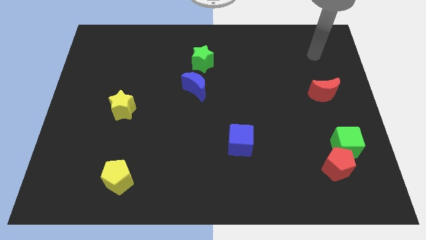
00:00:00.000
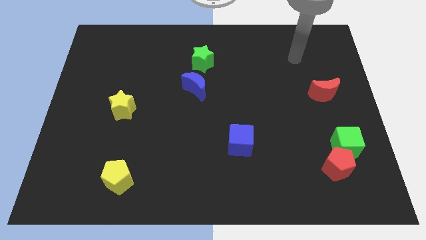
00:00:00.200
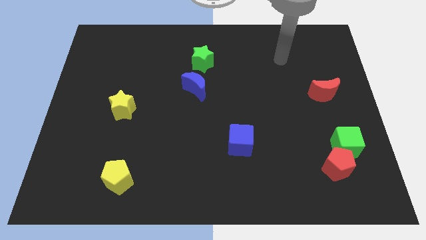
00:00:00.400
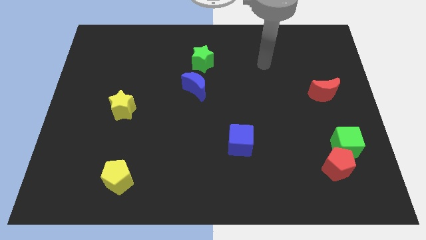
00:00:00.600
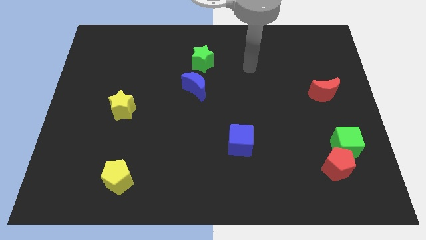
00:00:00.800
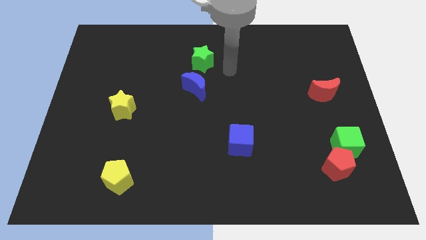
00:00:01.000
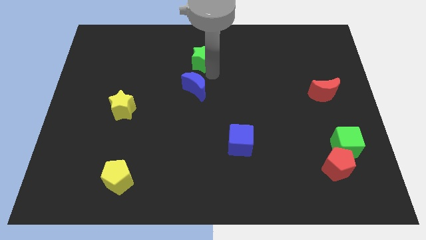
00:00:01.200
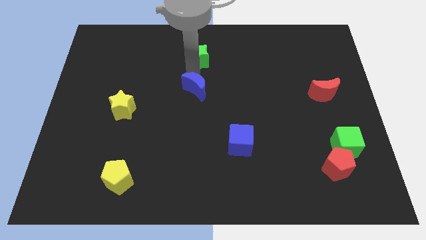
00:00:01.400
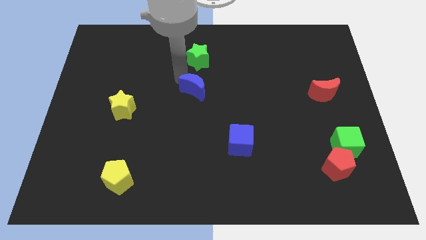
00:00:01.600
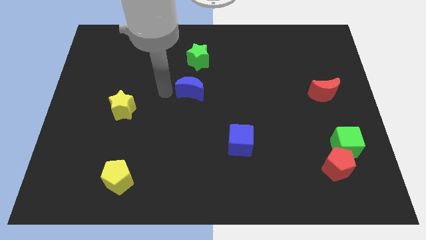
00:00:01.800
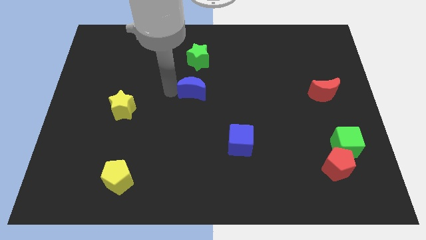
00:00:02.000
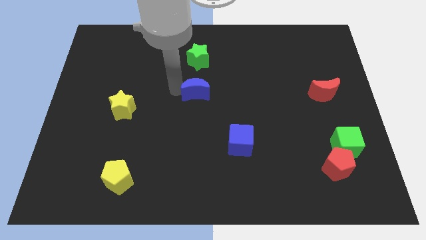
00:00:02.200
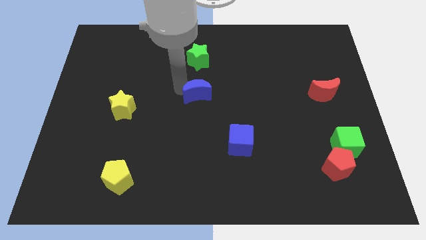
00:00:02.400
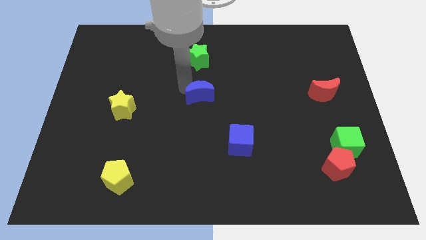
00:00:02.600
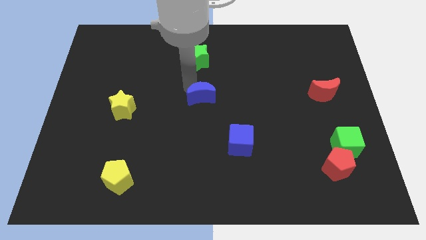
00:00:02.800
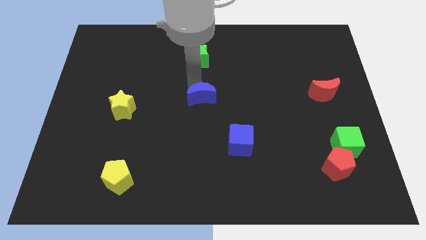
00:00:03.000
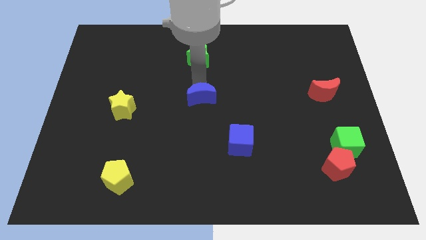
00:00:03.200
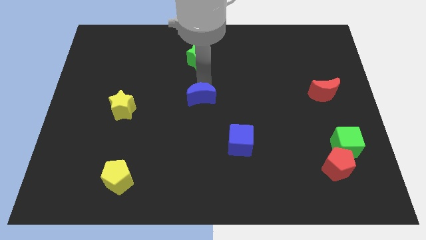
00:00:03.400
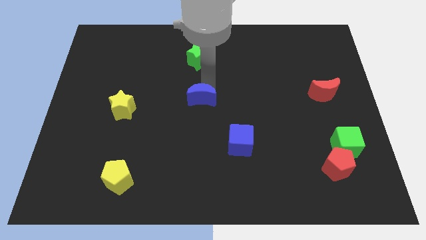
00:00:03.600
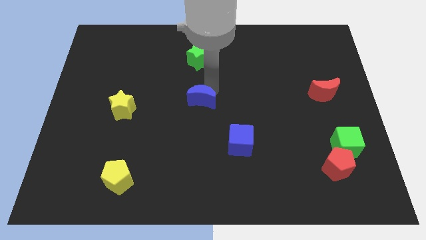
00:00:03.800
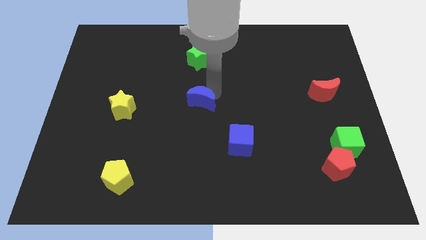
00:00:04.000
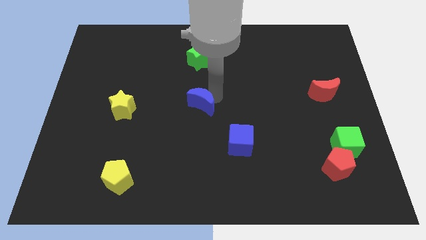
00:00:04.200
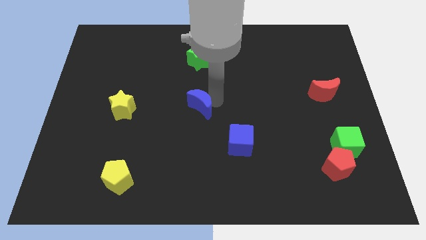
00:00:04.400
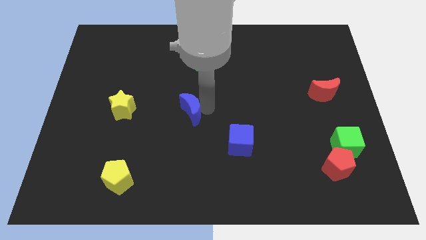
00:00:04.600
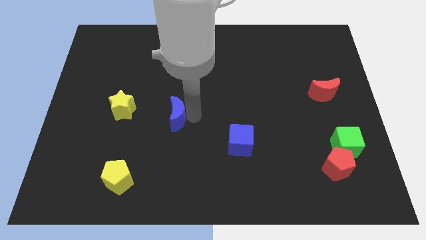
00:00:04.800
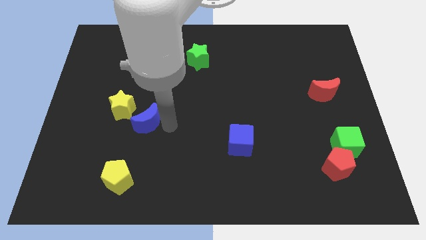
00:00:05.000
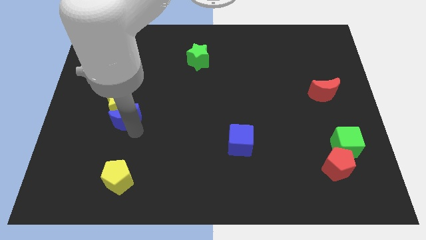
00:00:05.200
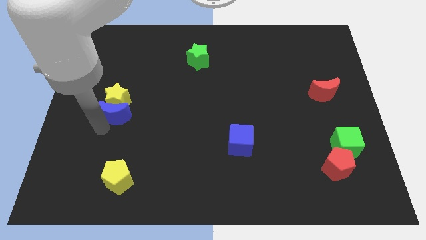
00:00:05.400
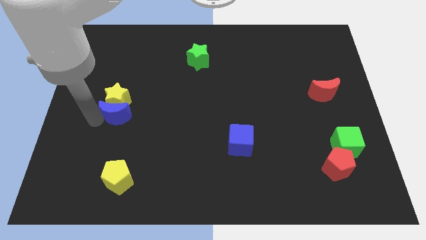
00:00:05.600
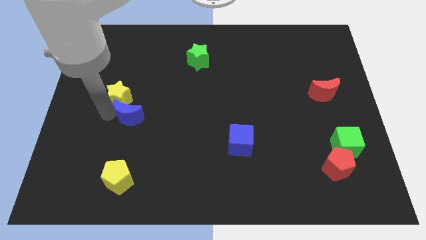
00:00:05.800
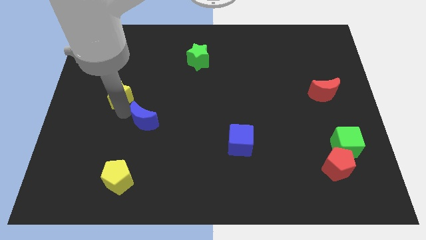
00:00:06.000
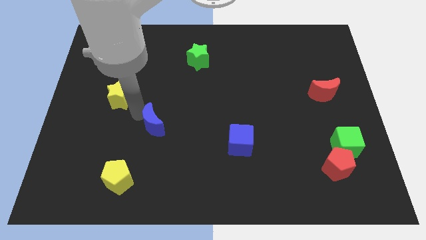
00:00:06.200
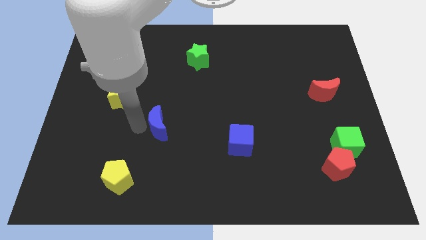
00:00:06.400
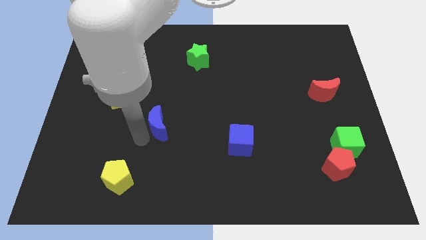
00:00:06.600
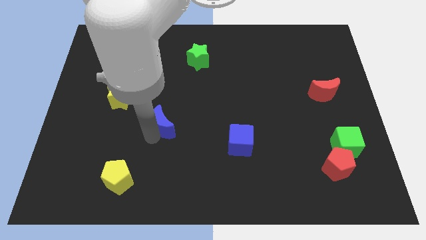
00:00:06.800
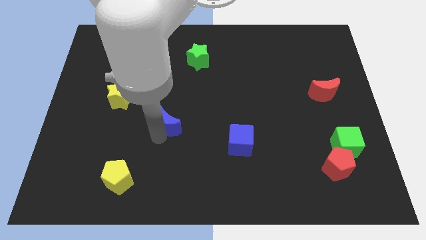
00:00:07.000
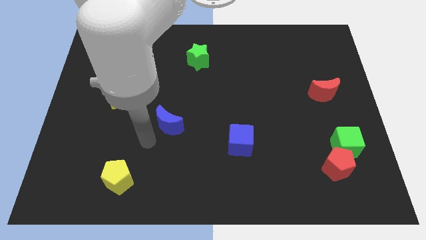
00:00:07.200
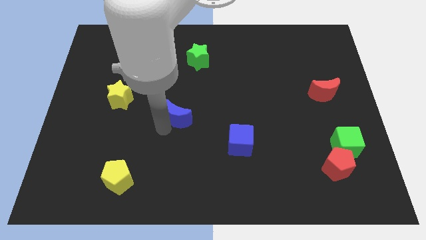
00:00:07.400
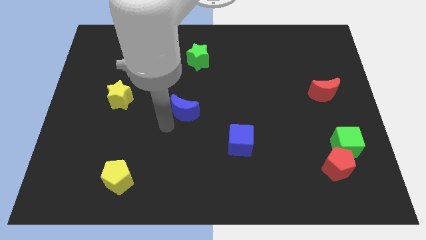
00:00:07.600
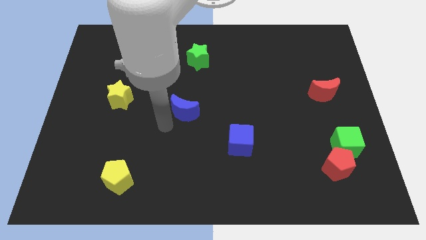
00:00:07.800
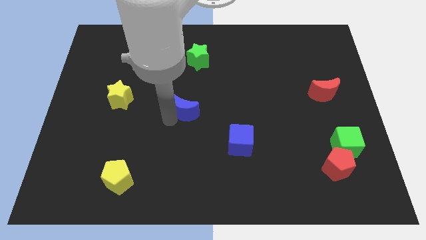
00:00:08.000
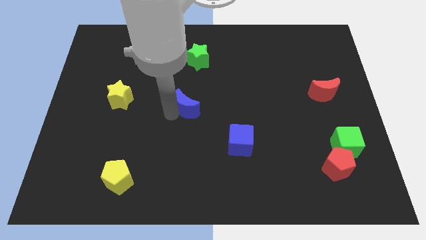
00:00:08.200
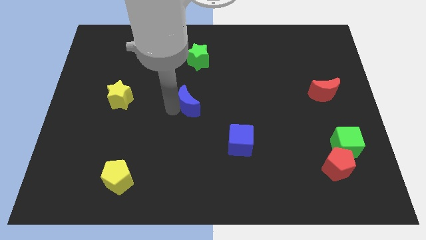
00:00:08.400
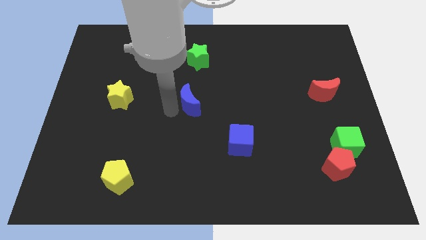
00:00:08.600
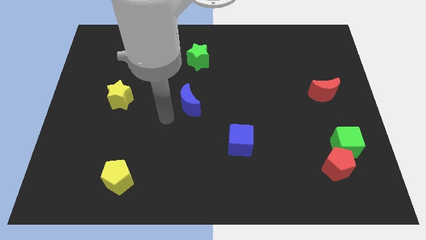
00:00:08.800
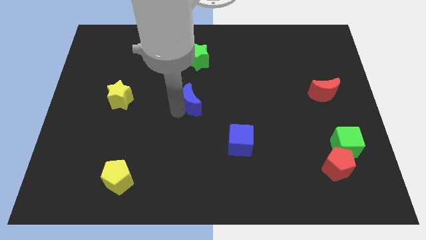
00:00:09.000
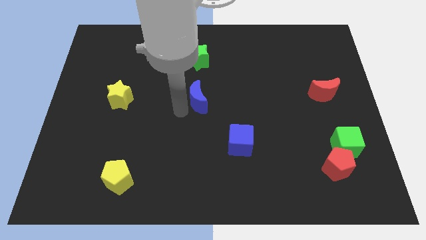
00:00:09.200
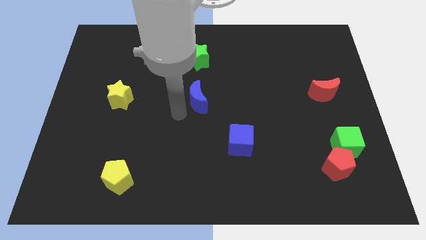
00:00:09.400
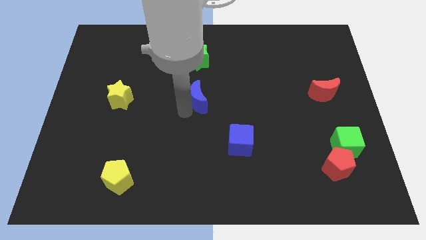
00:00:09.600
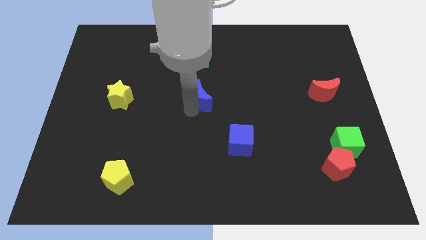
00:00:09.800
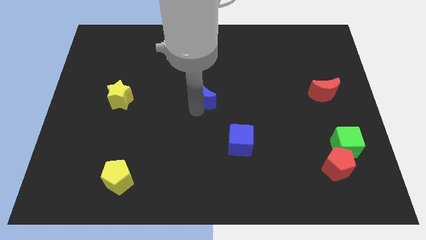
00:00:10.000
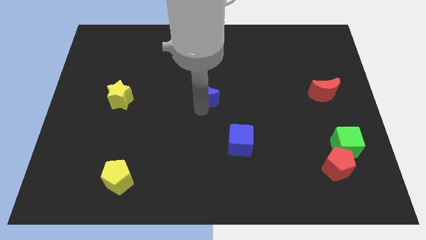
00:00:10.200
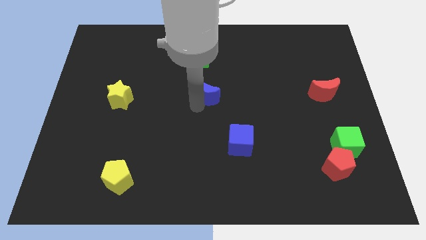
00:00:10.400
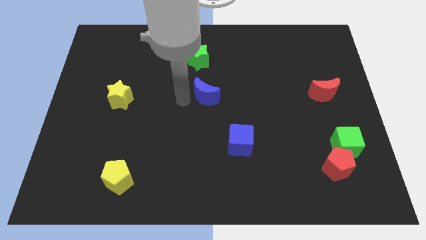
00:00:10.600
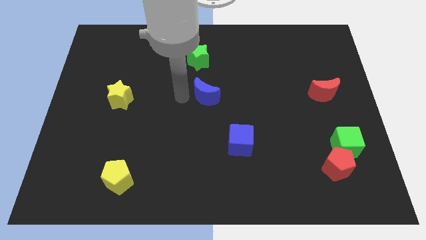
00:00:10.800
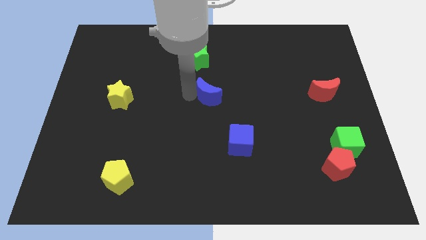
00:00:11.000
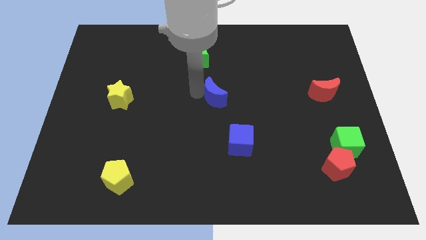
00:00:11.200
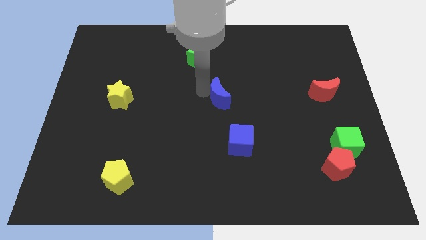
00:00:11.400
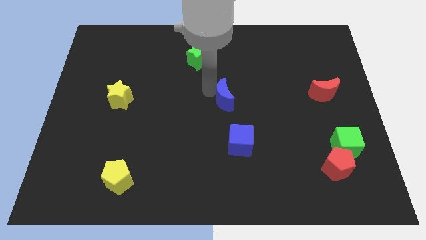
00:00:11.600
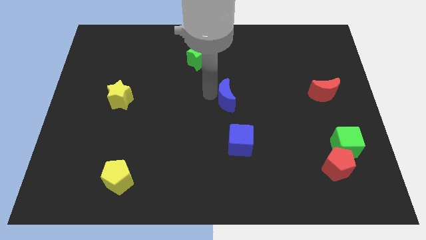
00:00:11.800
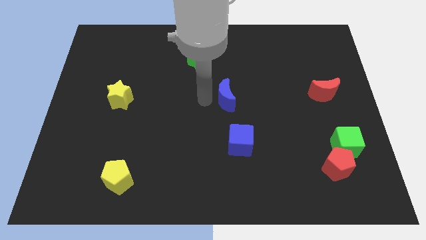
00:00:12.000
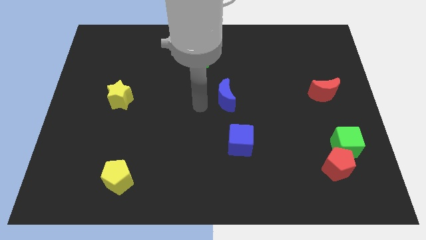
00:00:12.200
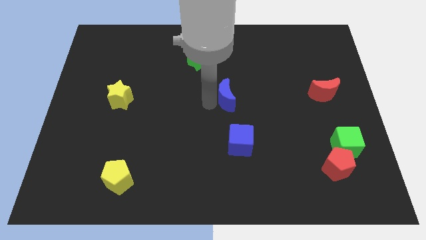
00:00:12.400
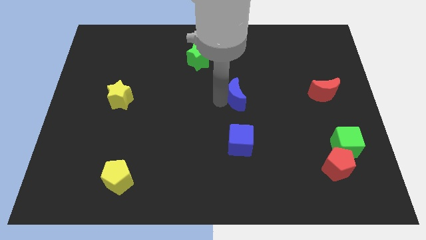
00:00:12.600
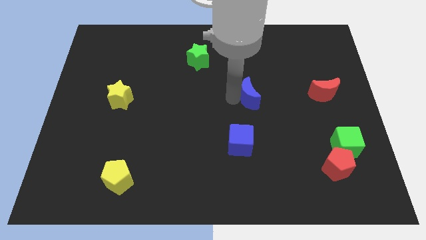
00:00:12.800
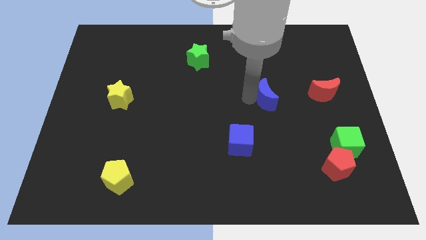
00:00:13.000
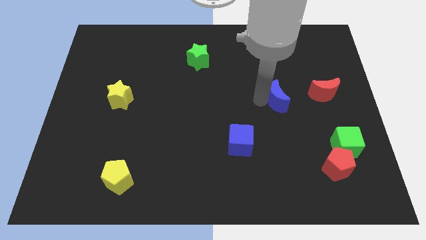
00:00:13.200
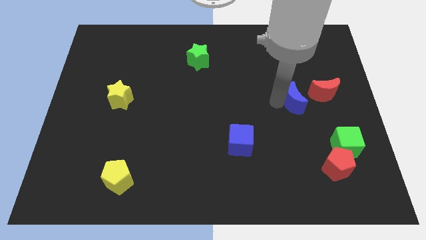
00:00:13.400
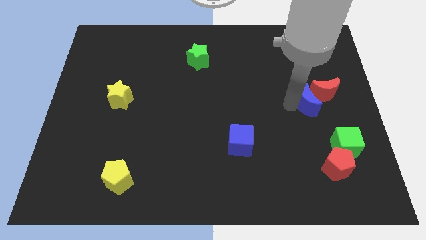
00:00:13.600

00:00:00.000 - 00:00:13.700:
put the blue moon towards the red moon

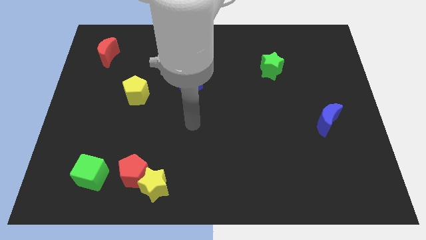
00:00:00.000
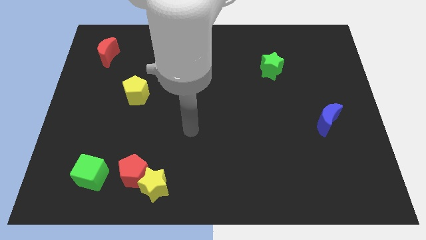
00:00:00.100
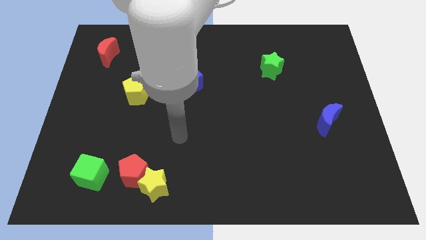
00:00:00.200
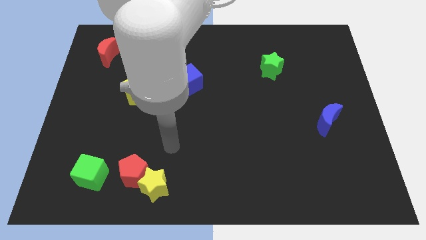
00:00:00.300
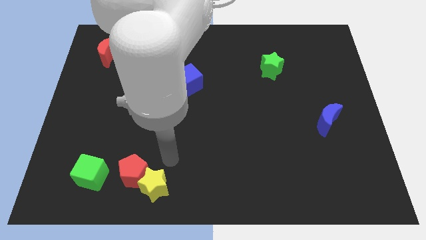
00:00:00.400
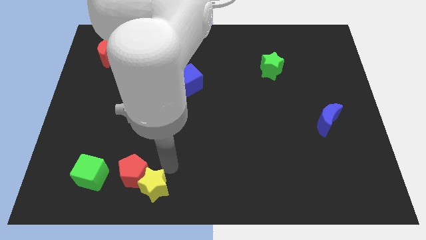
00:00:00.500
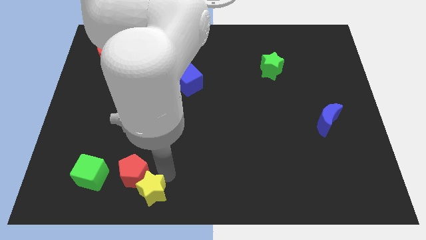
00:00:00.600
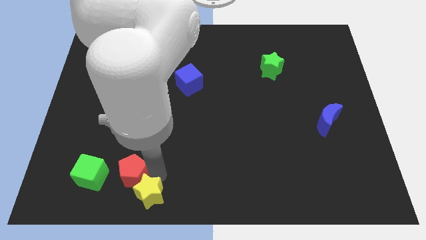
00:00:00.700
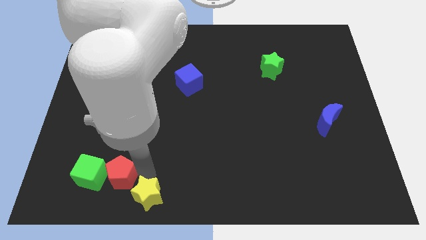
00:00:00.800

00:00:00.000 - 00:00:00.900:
slide the red pentagon to the green cube

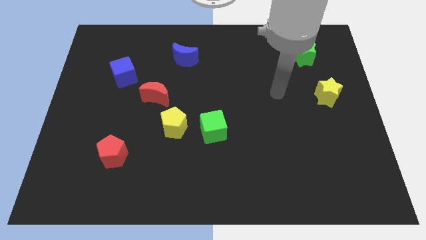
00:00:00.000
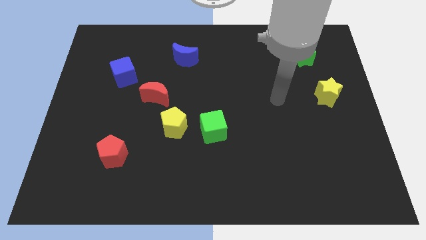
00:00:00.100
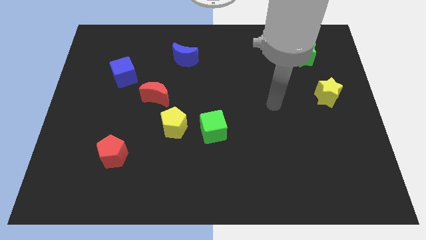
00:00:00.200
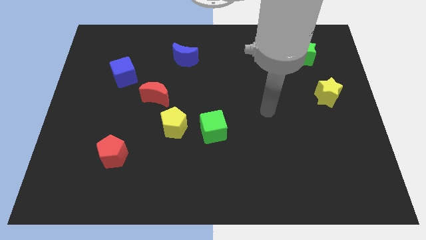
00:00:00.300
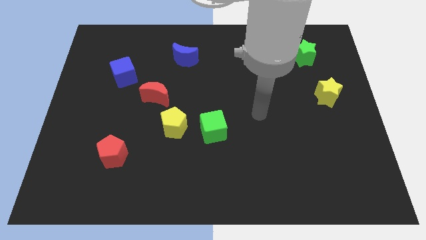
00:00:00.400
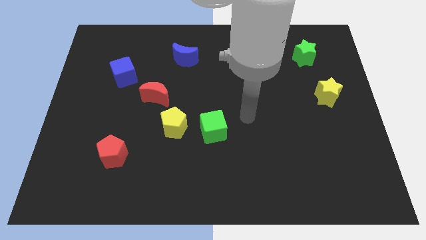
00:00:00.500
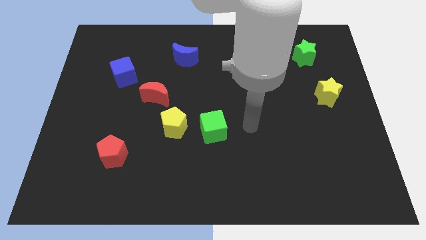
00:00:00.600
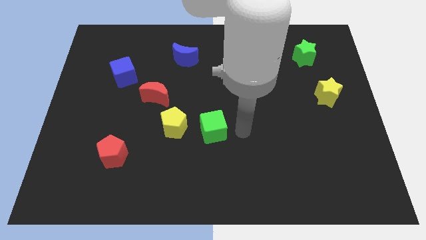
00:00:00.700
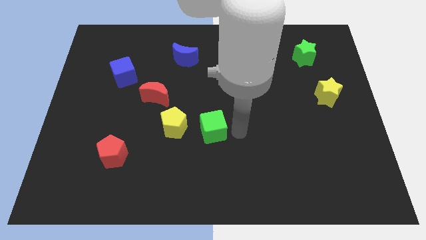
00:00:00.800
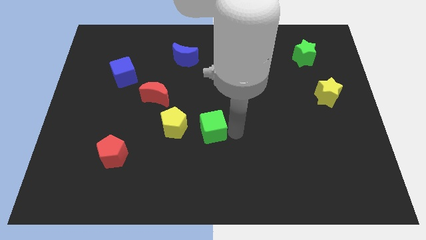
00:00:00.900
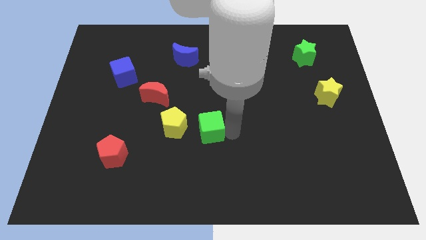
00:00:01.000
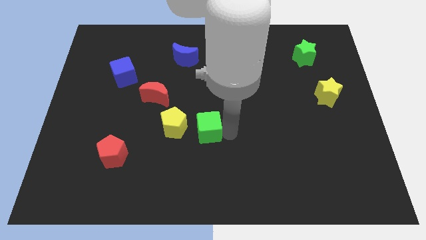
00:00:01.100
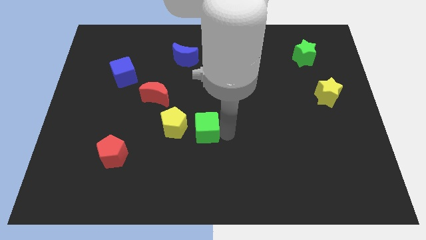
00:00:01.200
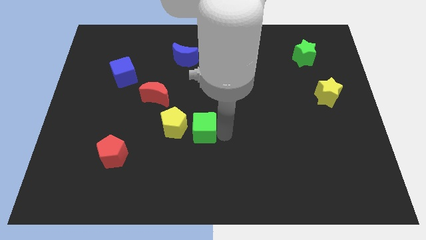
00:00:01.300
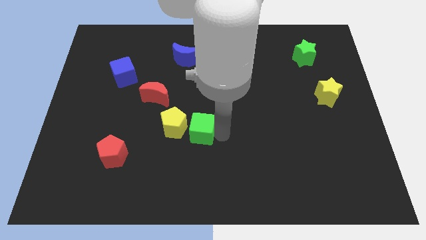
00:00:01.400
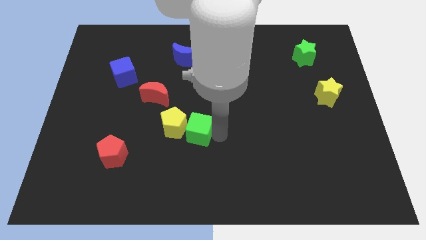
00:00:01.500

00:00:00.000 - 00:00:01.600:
slide the green cube next to the yellow pentagon
